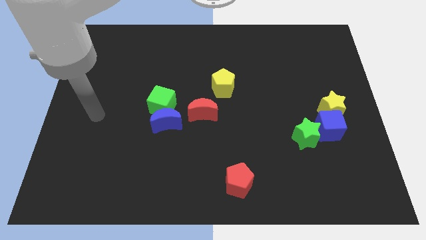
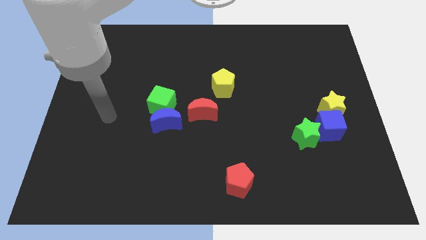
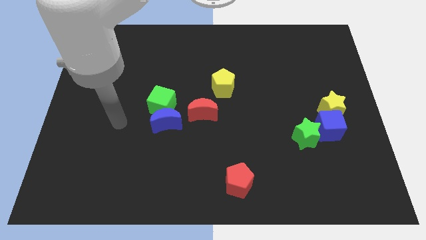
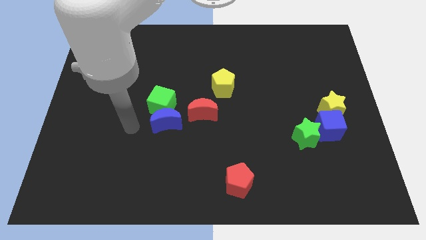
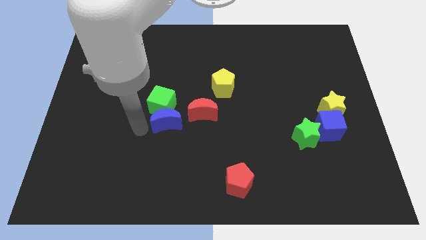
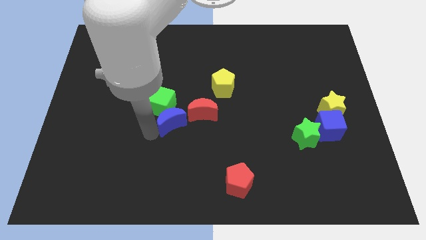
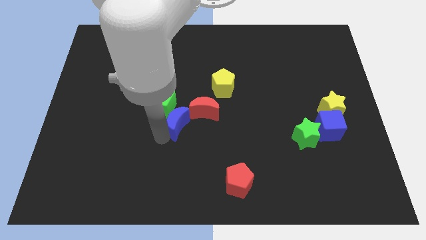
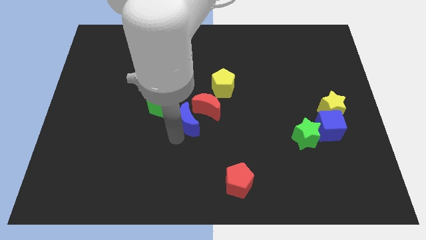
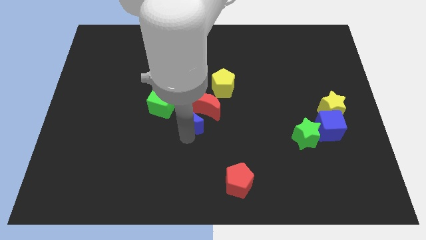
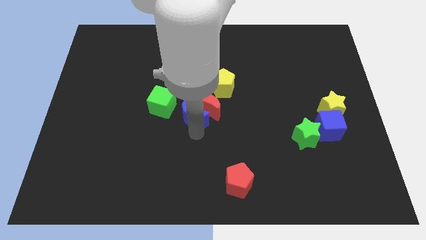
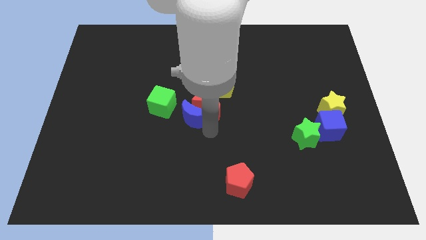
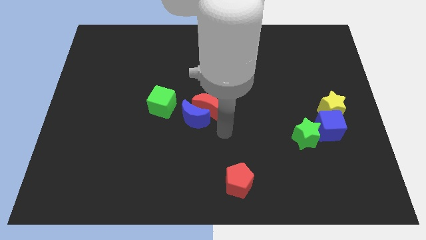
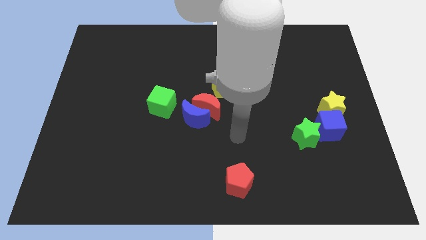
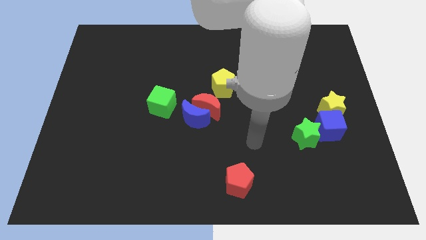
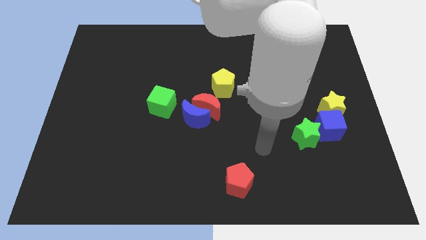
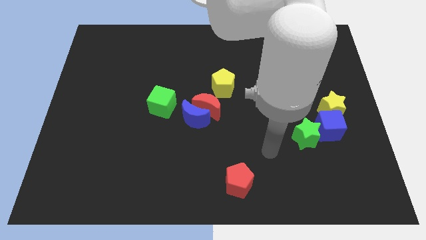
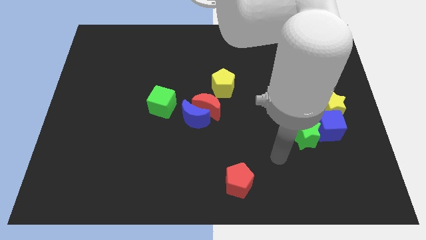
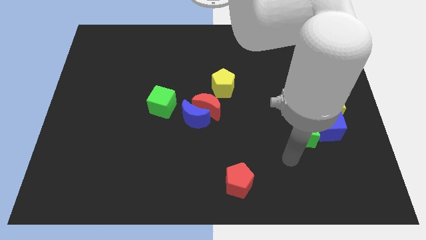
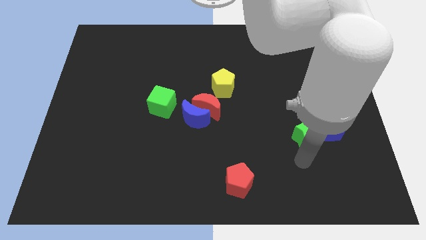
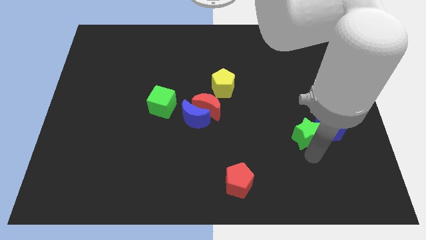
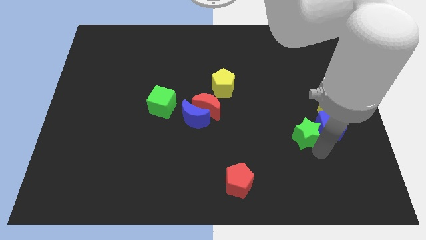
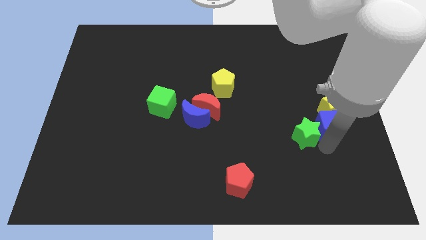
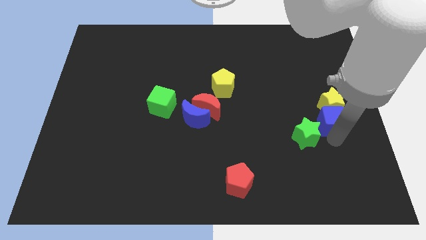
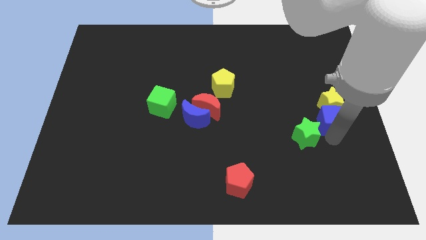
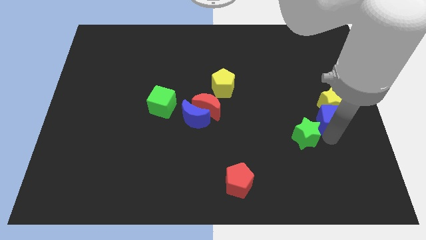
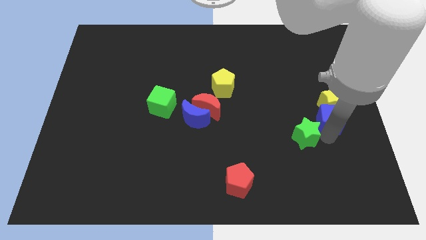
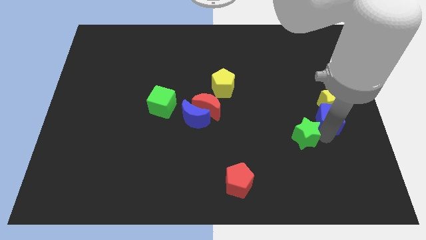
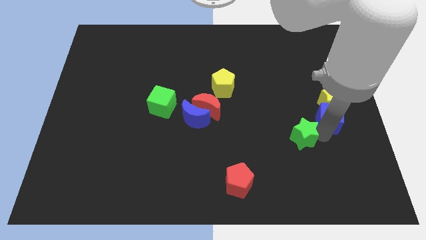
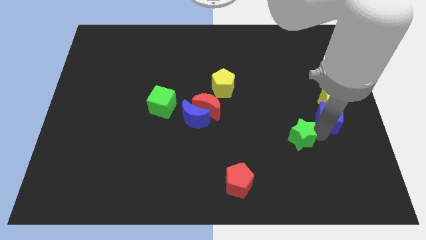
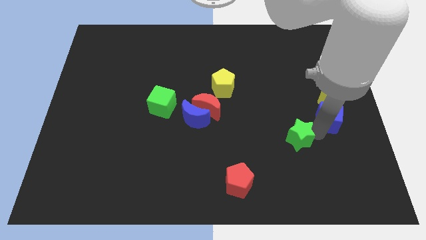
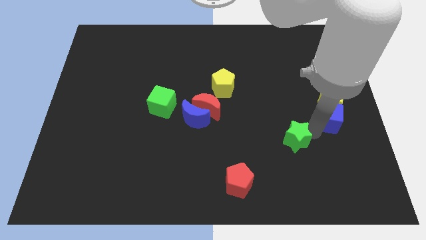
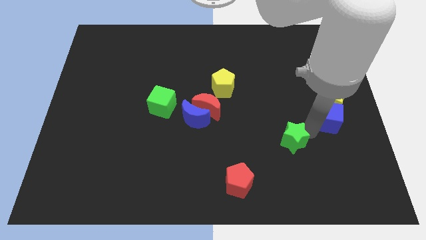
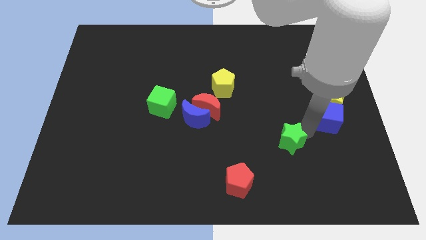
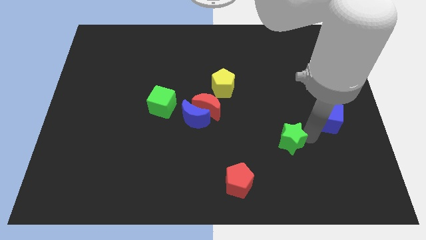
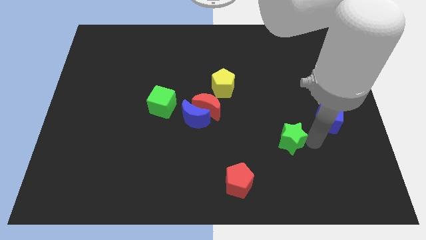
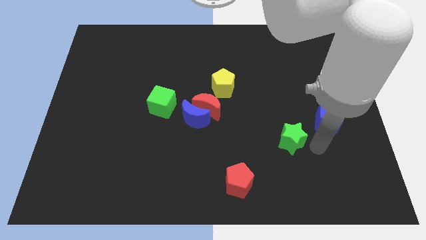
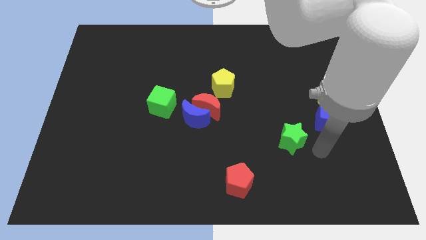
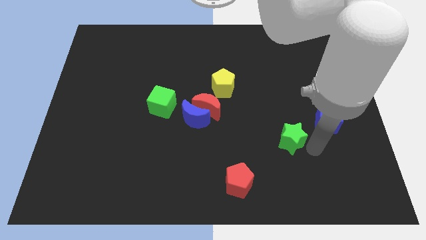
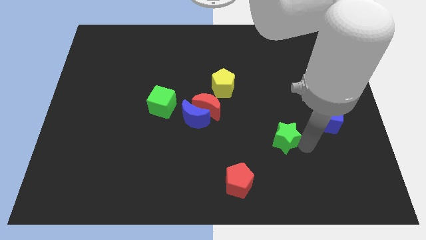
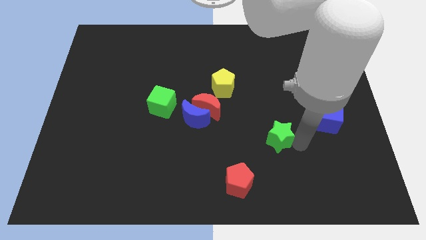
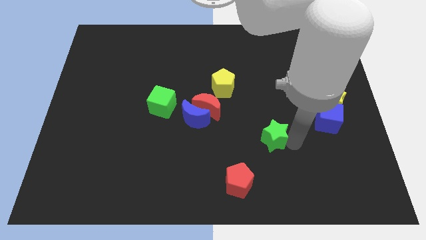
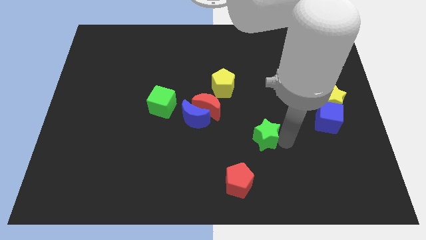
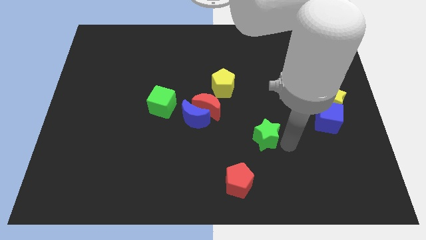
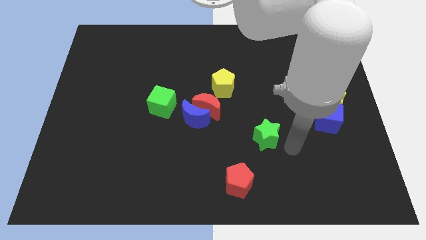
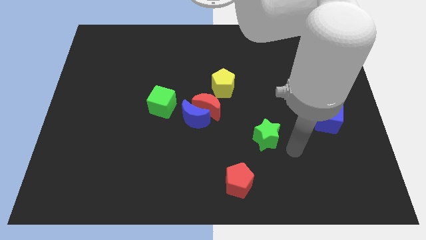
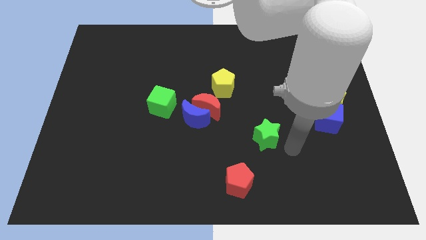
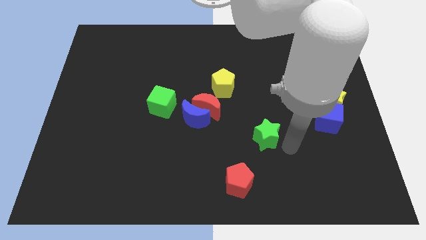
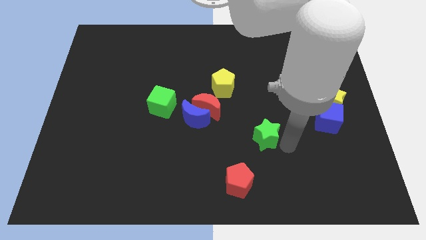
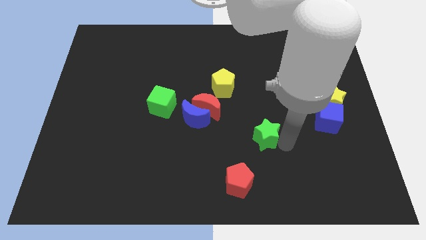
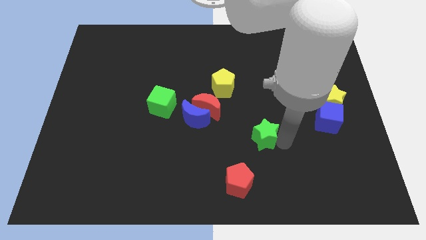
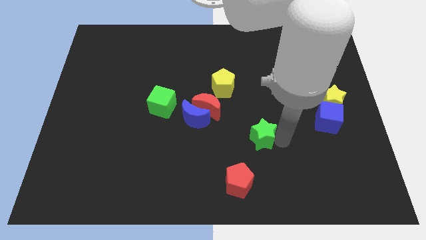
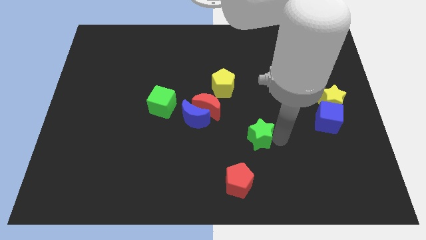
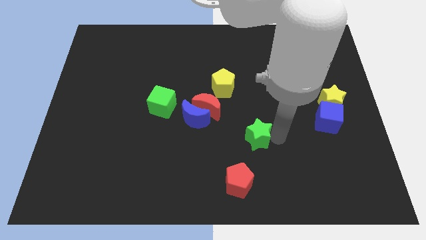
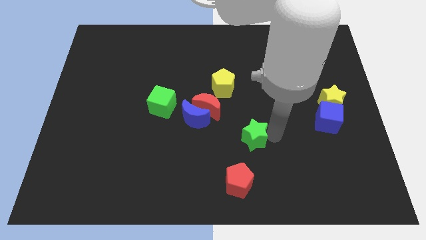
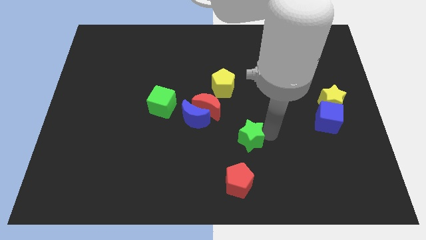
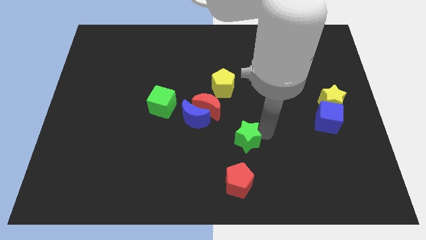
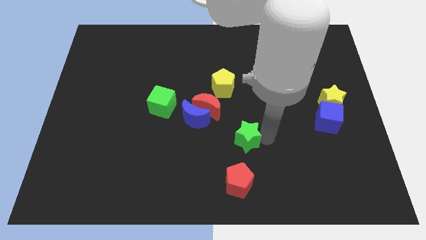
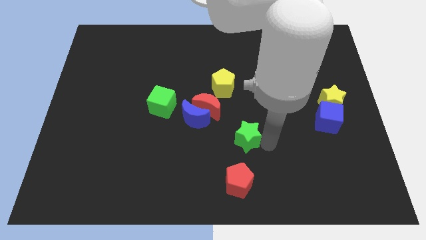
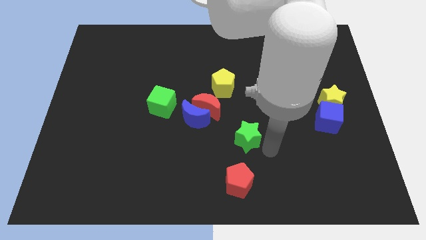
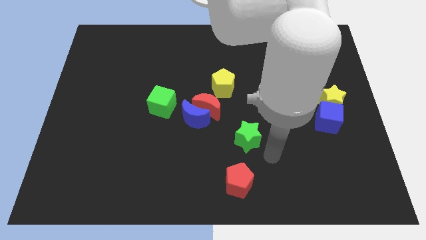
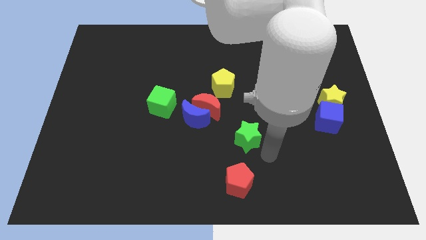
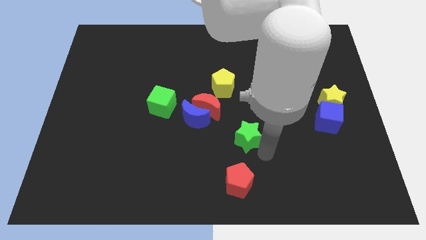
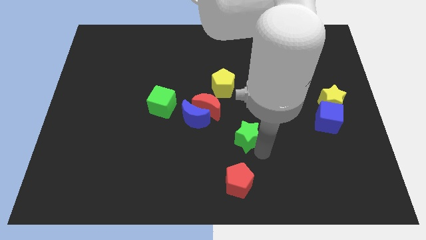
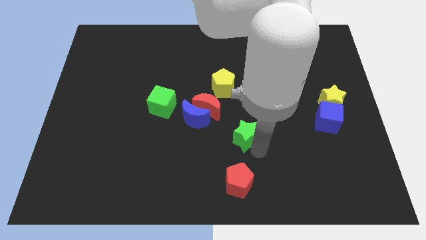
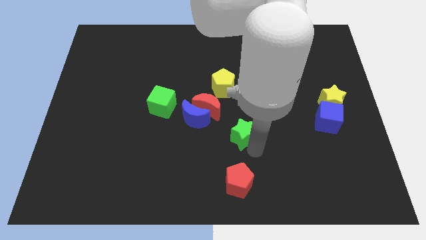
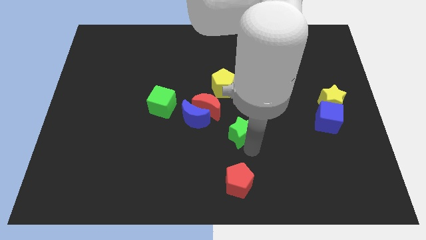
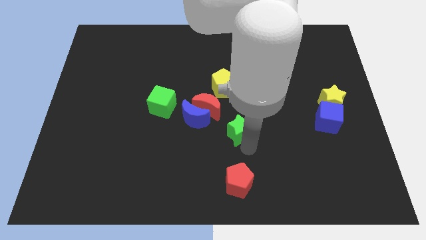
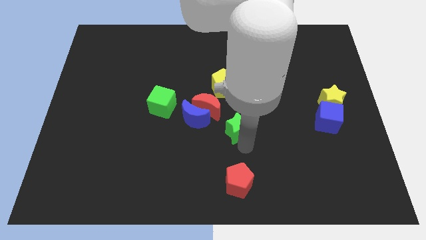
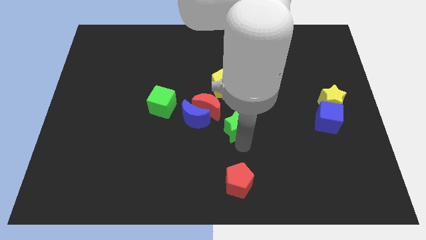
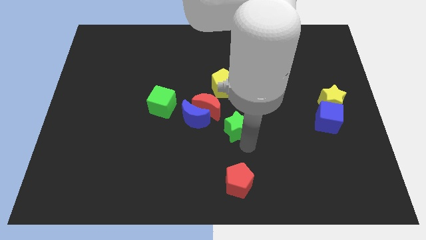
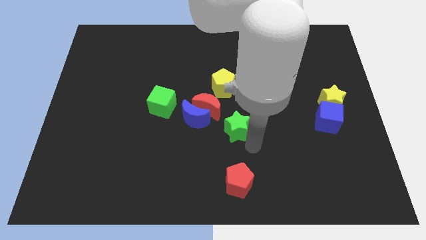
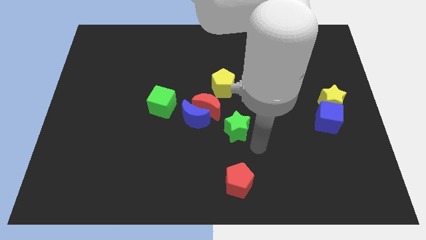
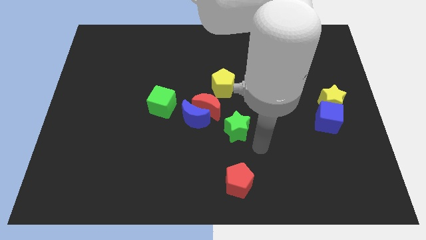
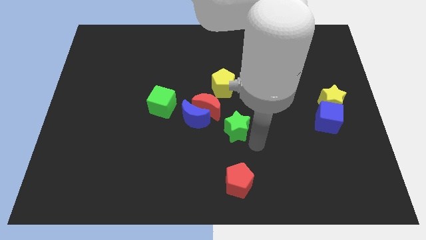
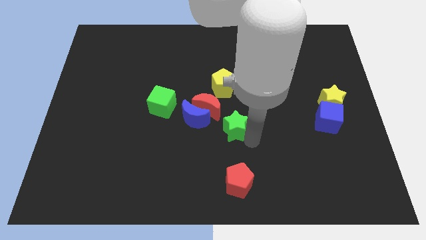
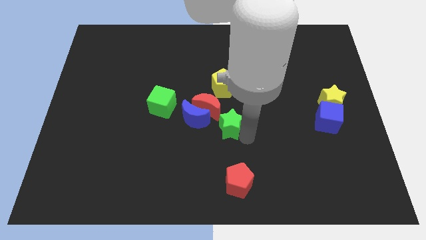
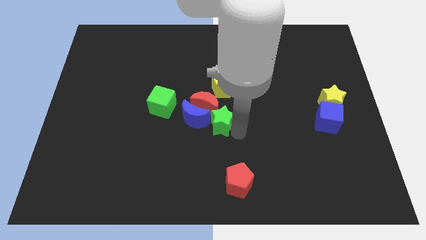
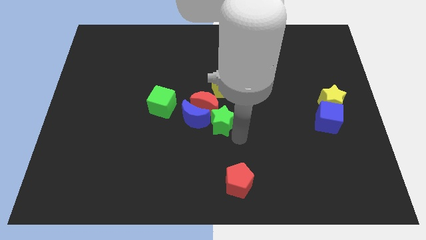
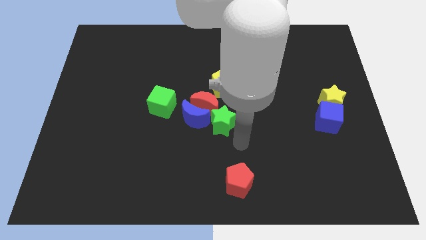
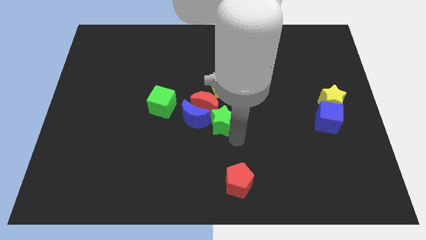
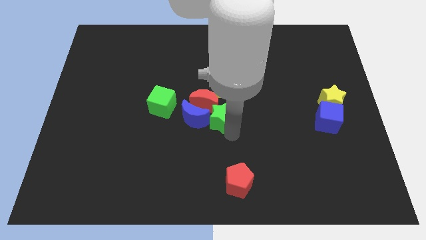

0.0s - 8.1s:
put the green star towards the red moon
